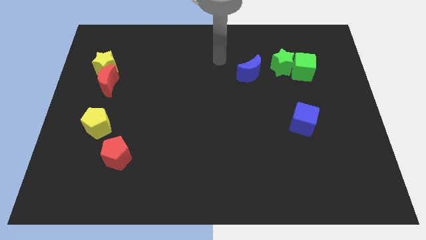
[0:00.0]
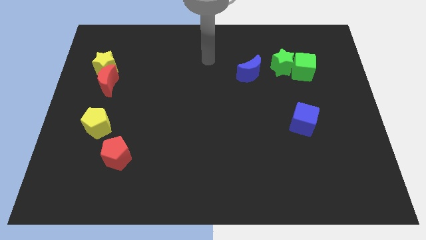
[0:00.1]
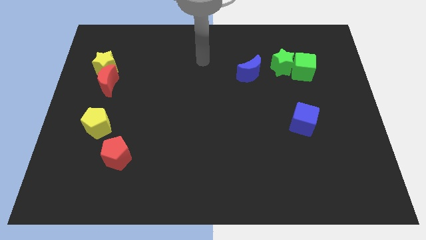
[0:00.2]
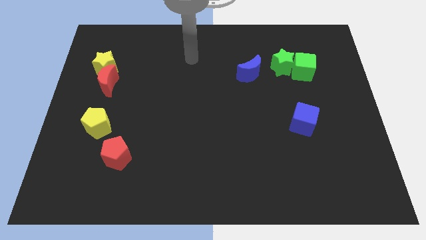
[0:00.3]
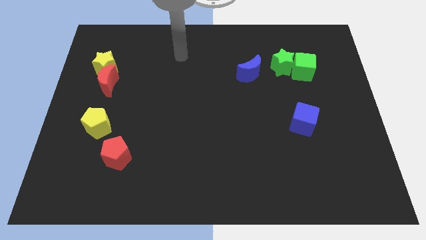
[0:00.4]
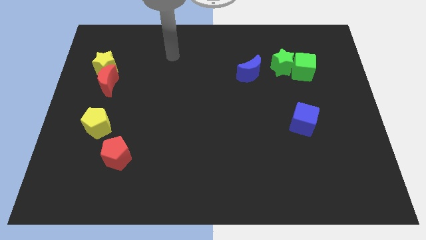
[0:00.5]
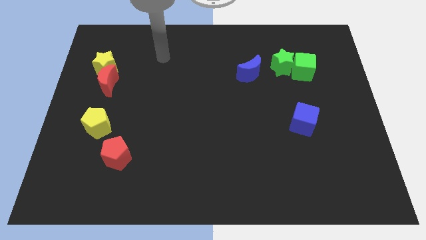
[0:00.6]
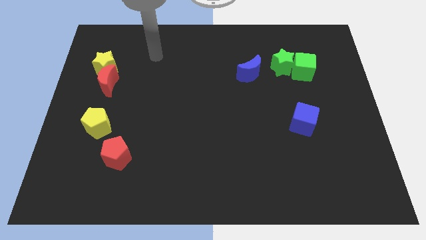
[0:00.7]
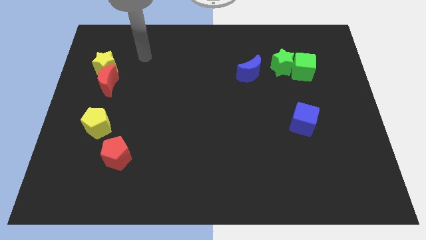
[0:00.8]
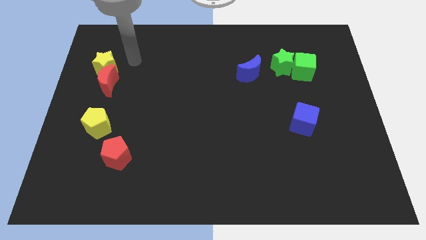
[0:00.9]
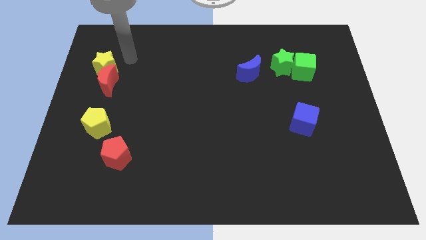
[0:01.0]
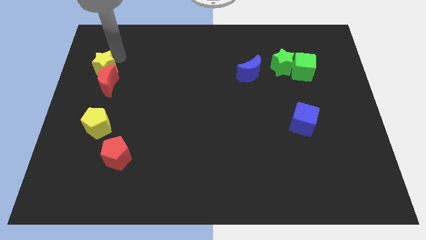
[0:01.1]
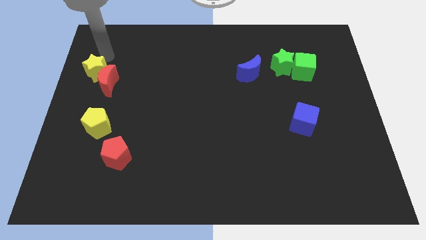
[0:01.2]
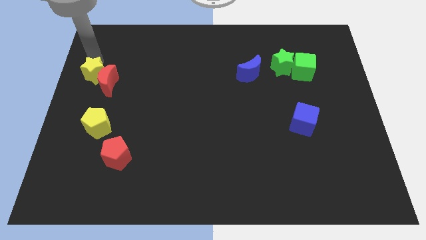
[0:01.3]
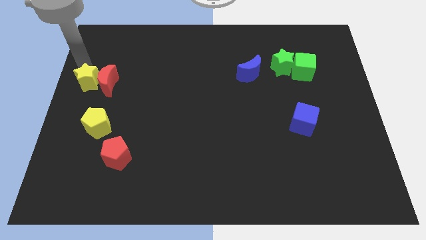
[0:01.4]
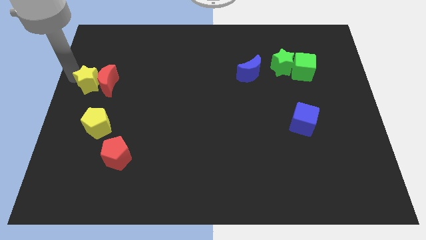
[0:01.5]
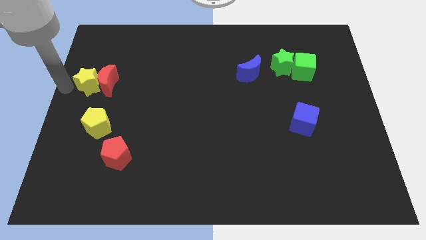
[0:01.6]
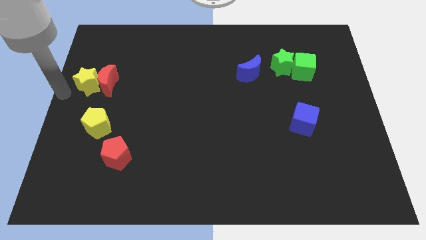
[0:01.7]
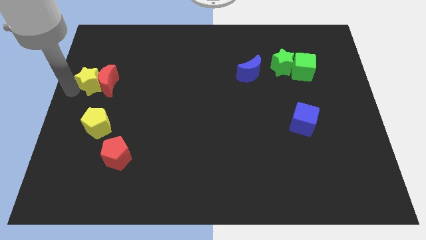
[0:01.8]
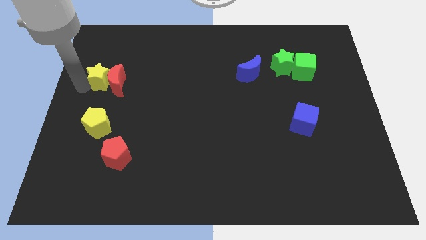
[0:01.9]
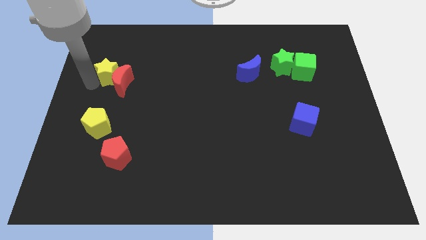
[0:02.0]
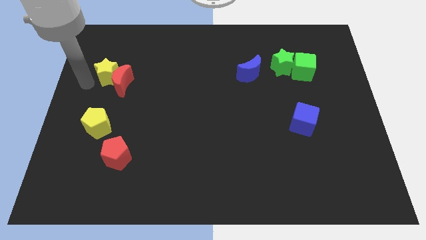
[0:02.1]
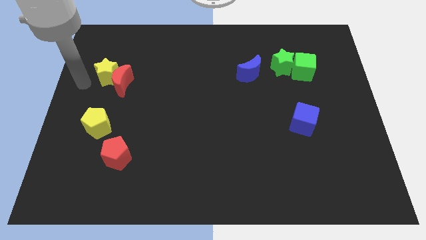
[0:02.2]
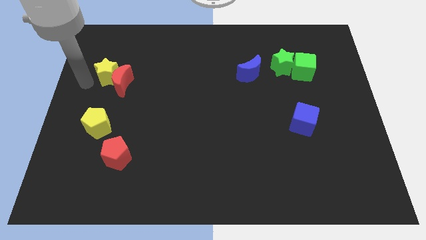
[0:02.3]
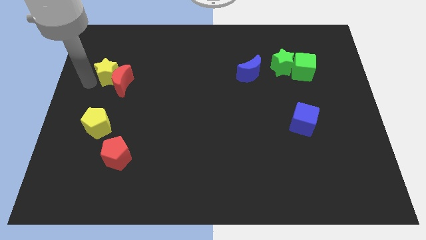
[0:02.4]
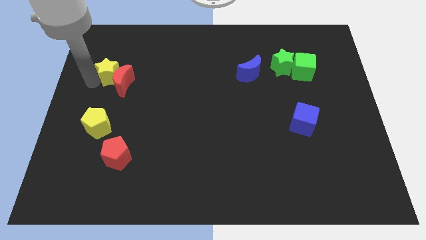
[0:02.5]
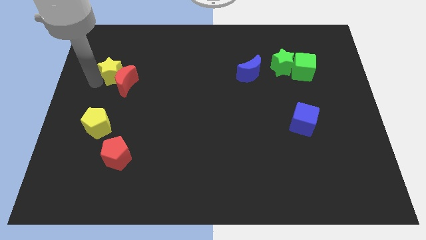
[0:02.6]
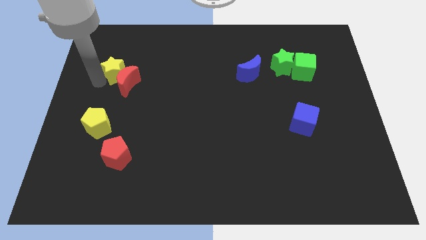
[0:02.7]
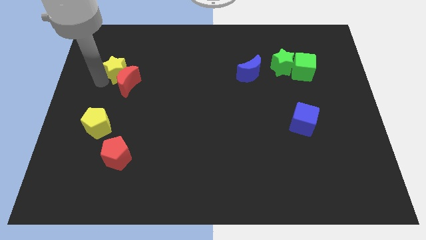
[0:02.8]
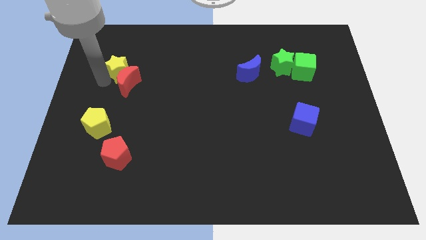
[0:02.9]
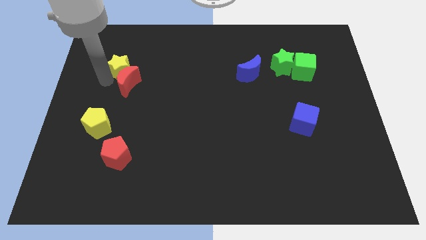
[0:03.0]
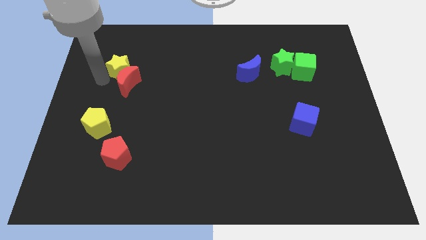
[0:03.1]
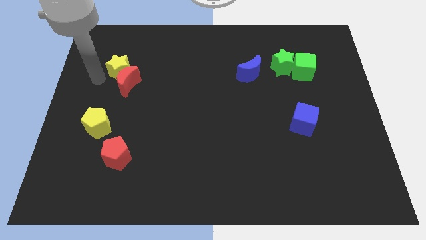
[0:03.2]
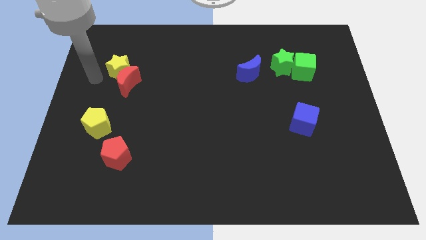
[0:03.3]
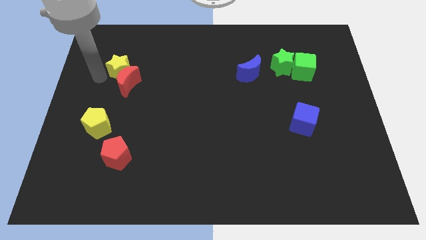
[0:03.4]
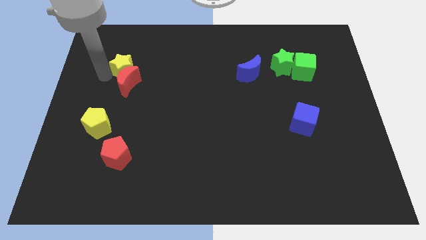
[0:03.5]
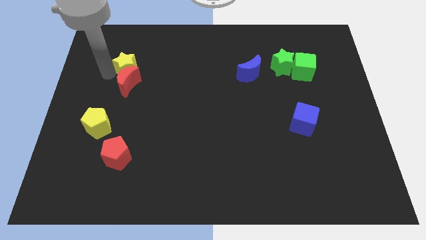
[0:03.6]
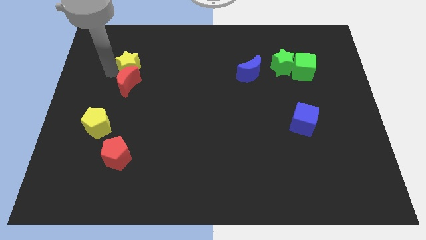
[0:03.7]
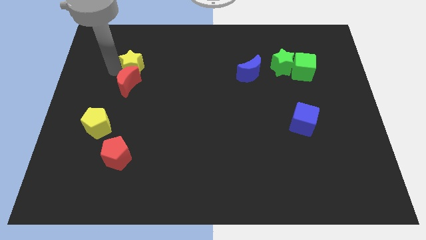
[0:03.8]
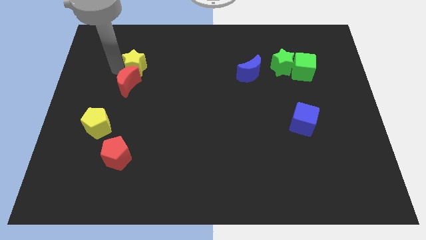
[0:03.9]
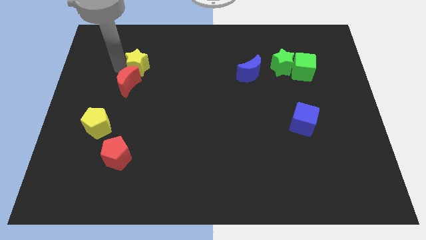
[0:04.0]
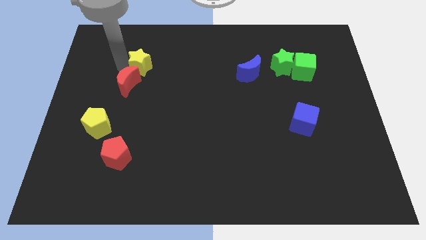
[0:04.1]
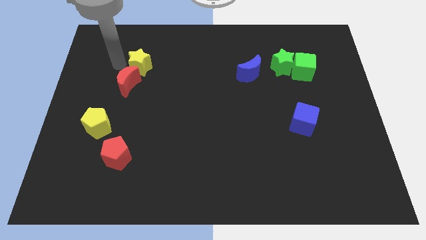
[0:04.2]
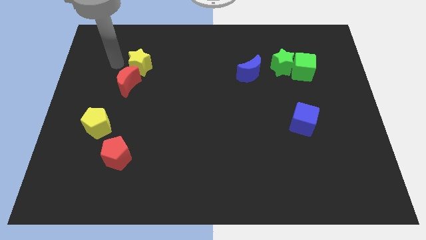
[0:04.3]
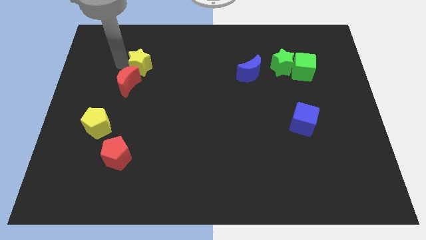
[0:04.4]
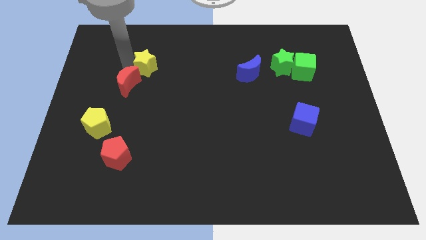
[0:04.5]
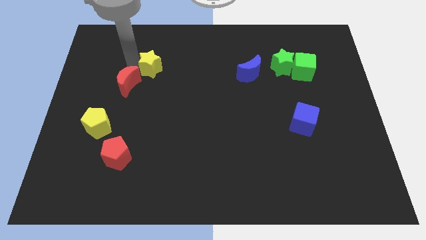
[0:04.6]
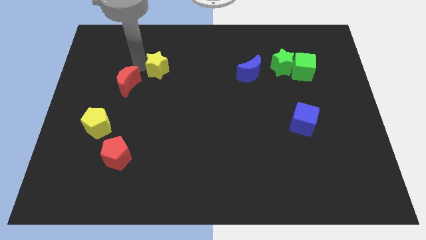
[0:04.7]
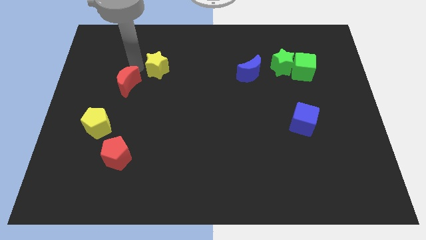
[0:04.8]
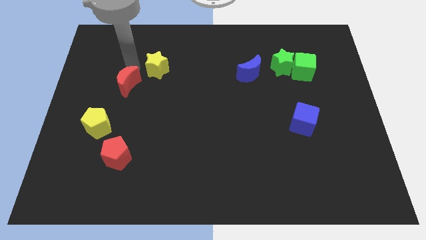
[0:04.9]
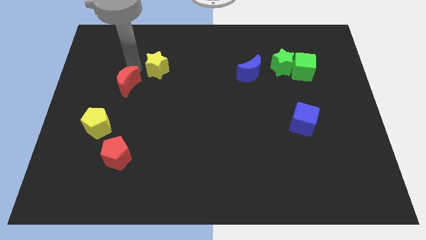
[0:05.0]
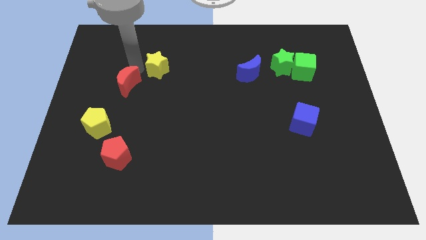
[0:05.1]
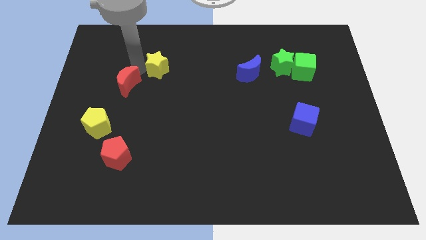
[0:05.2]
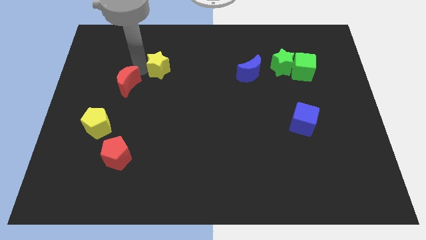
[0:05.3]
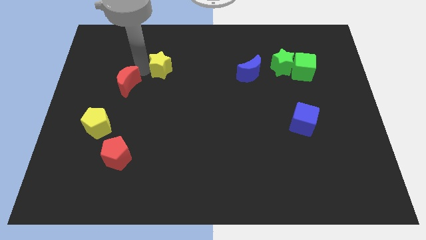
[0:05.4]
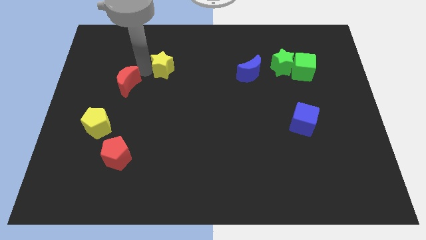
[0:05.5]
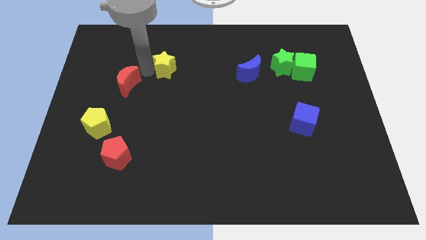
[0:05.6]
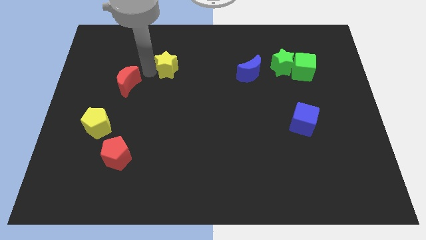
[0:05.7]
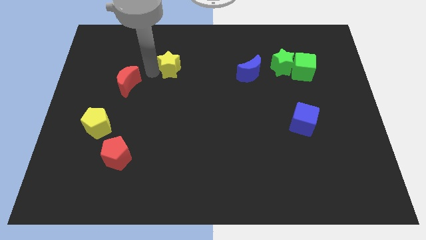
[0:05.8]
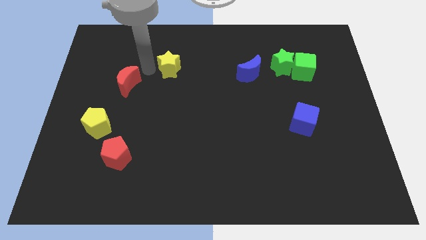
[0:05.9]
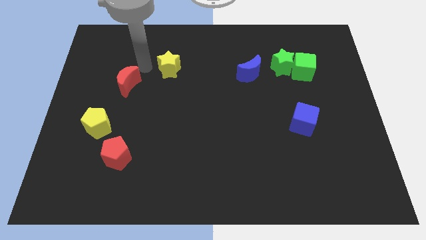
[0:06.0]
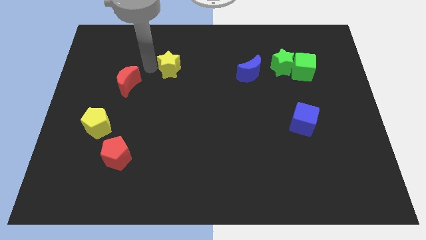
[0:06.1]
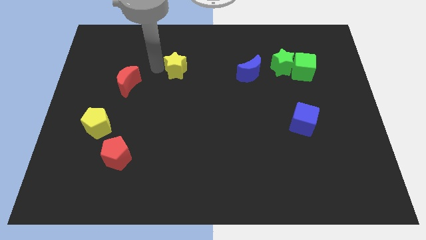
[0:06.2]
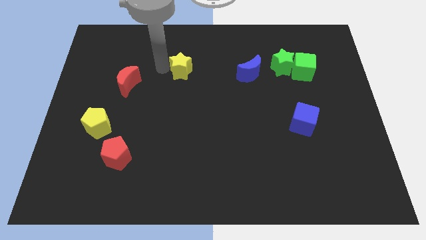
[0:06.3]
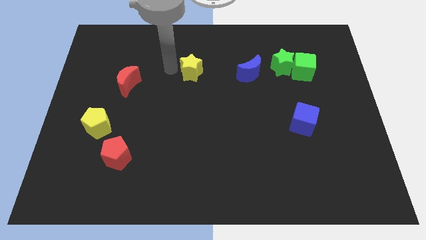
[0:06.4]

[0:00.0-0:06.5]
slide the yellow star right

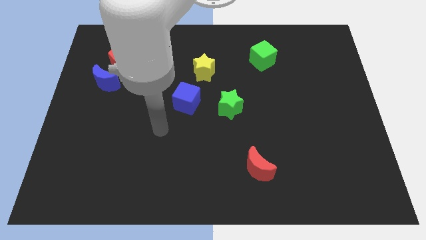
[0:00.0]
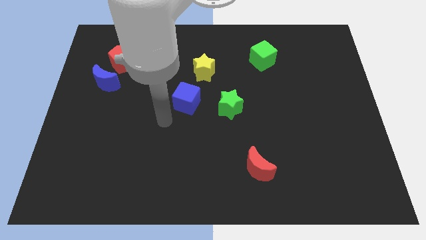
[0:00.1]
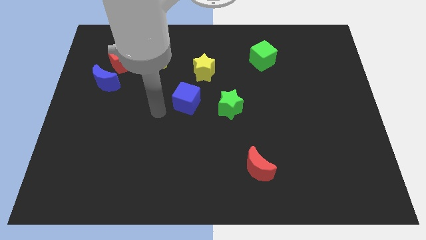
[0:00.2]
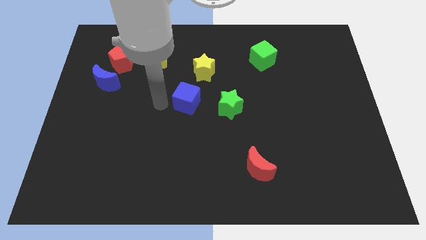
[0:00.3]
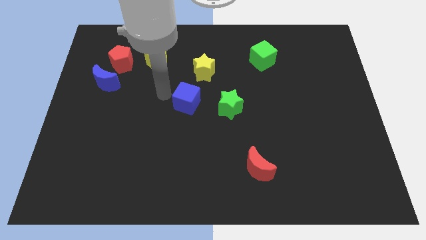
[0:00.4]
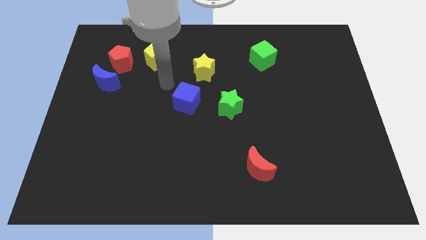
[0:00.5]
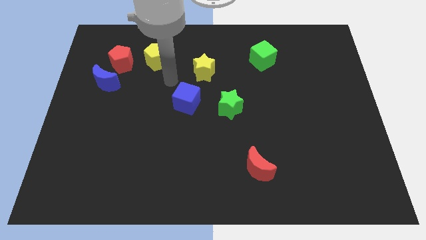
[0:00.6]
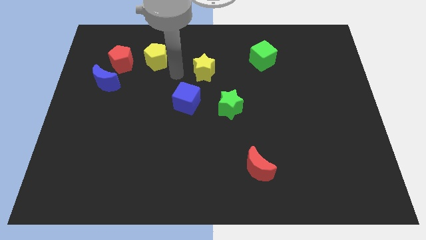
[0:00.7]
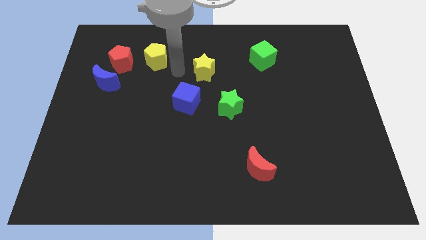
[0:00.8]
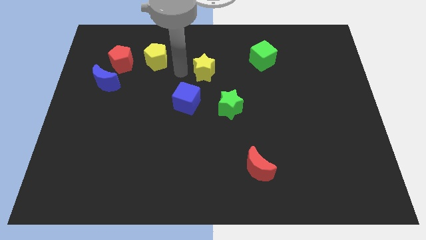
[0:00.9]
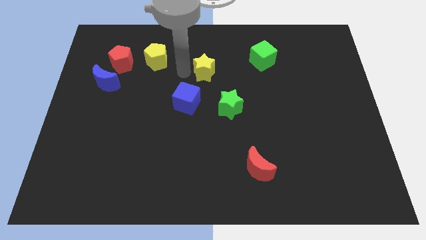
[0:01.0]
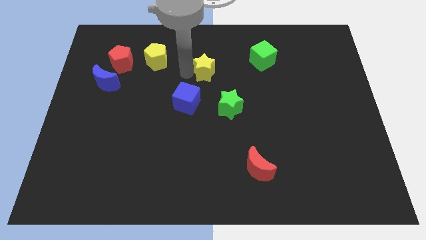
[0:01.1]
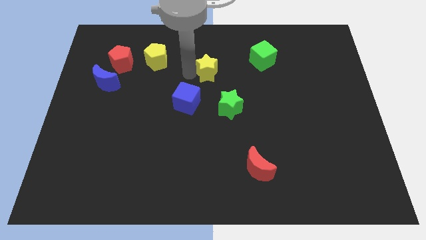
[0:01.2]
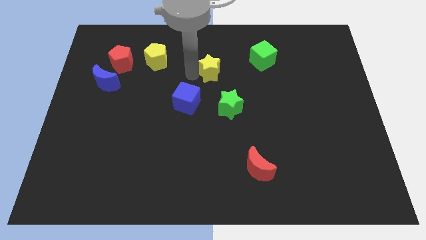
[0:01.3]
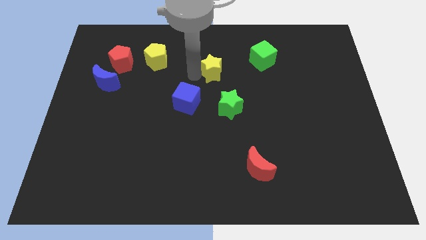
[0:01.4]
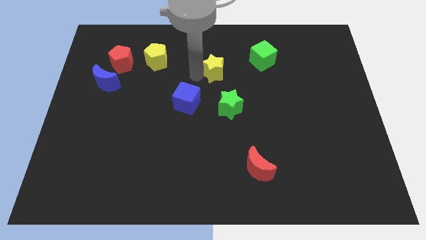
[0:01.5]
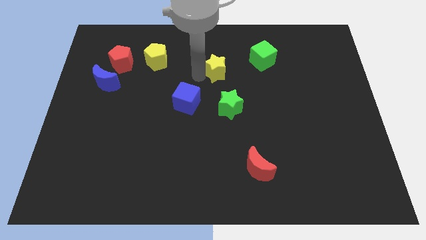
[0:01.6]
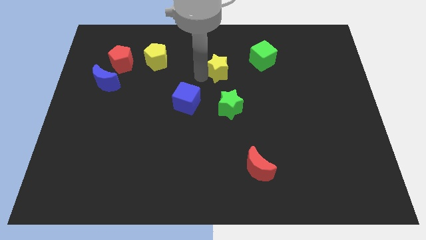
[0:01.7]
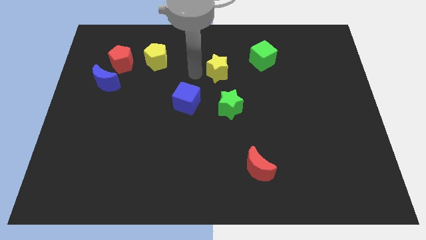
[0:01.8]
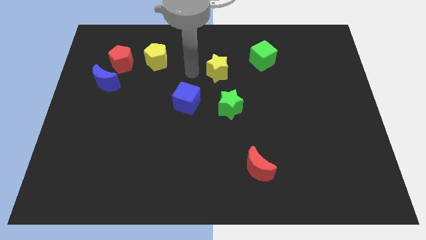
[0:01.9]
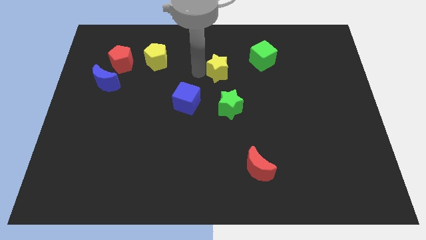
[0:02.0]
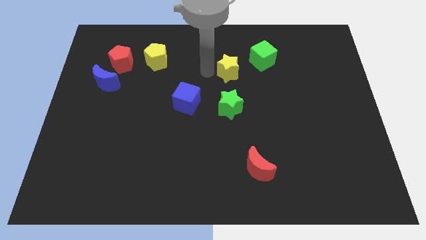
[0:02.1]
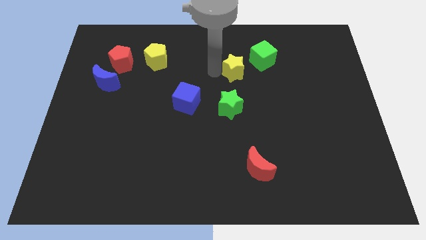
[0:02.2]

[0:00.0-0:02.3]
slightly slide the yellow star to the right
